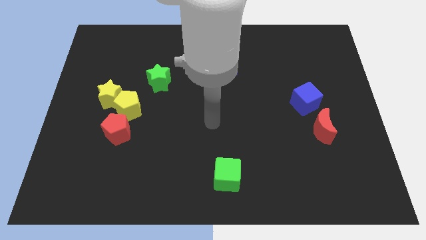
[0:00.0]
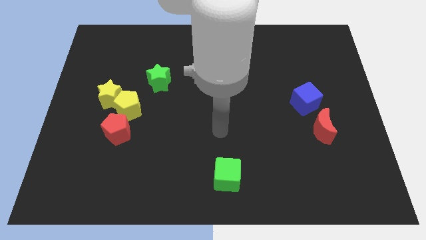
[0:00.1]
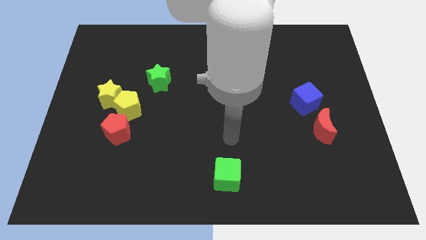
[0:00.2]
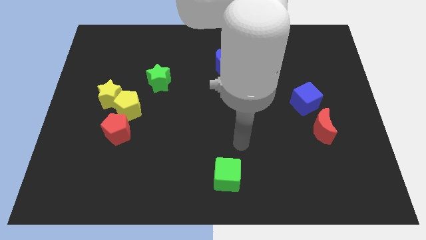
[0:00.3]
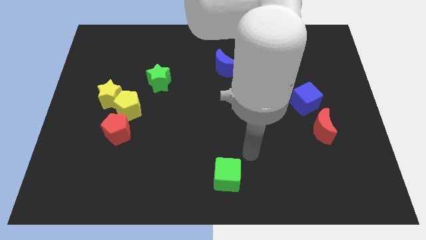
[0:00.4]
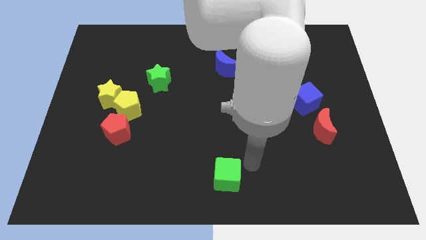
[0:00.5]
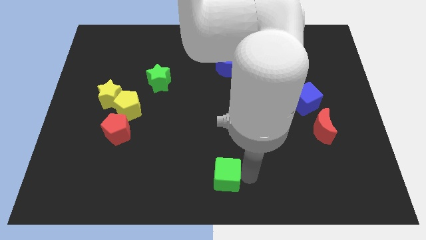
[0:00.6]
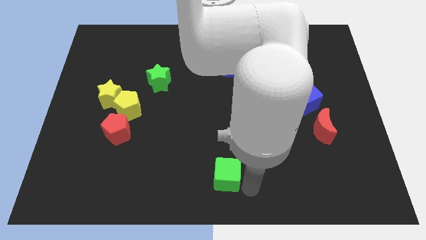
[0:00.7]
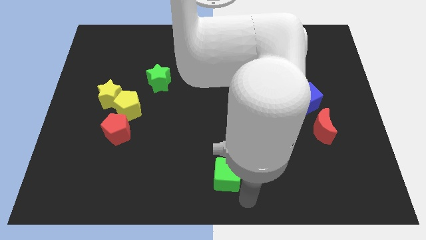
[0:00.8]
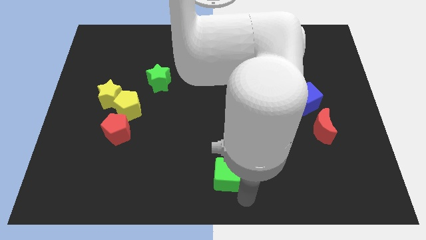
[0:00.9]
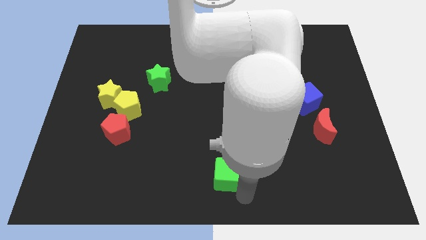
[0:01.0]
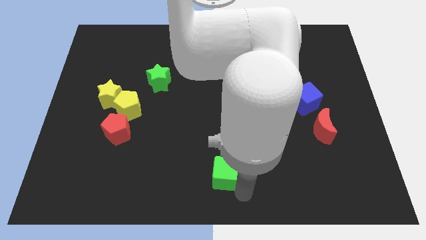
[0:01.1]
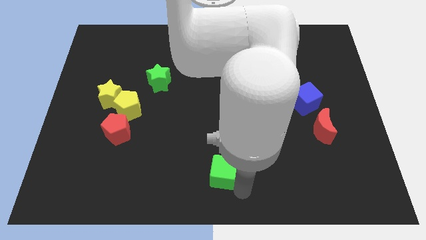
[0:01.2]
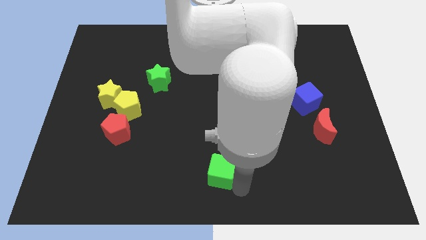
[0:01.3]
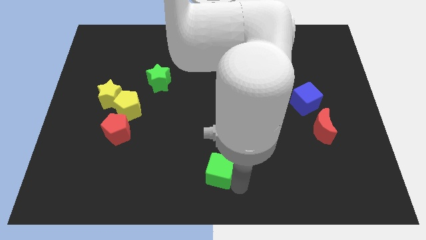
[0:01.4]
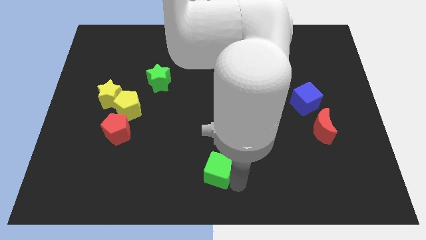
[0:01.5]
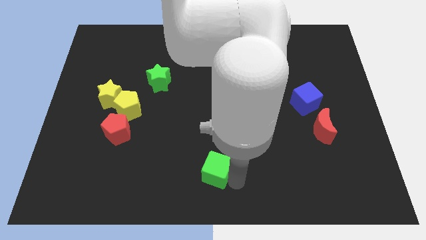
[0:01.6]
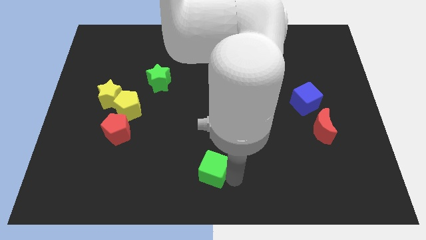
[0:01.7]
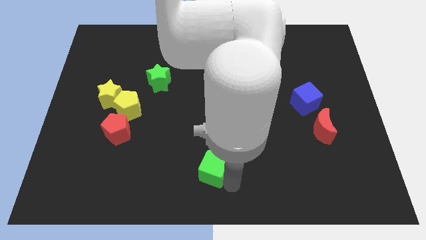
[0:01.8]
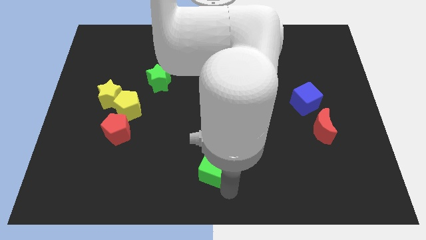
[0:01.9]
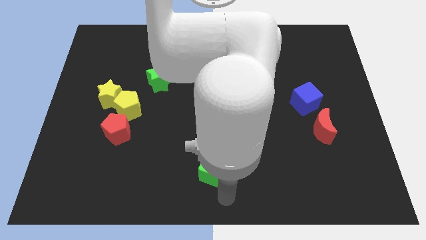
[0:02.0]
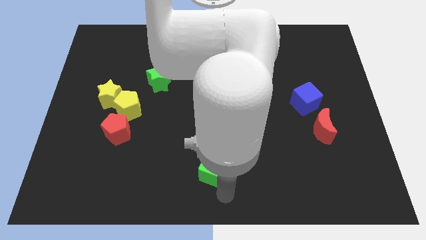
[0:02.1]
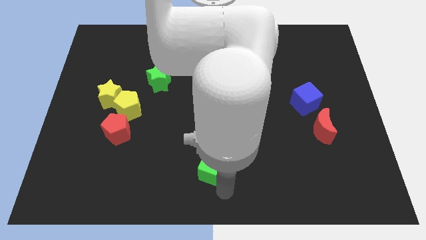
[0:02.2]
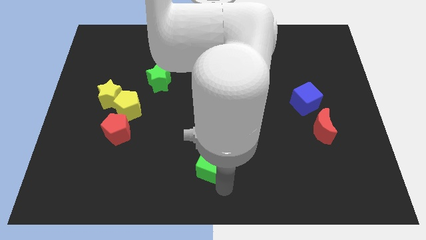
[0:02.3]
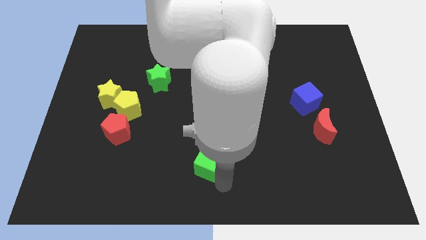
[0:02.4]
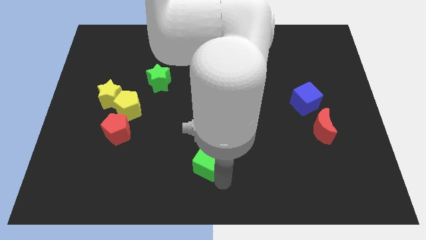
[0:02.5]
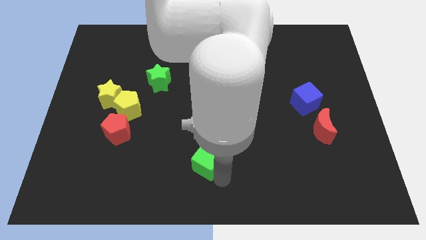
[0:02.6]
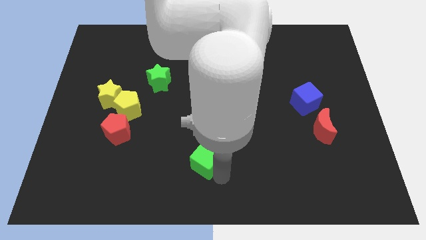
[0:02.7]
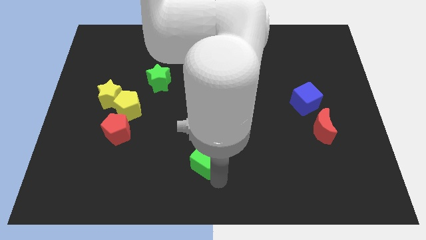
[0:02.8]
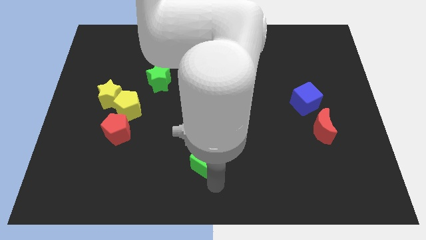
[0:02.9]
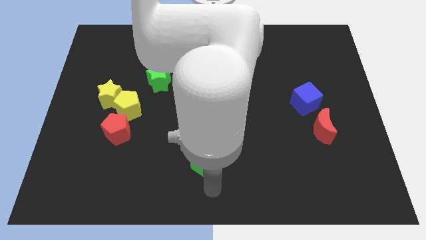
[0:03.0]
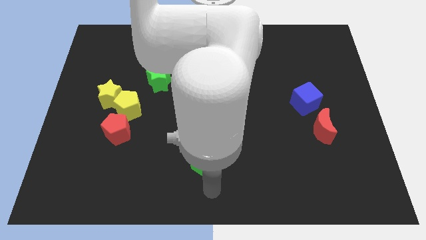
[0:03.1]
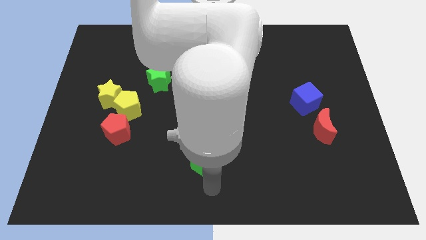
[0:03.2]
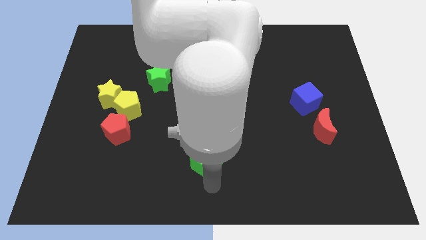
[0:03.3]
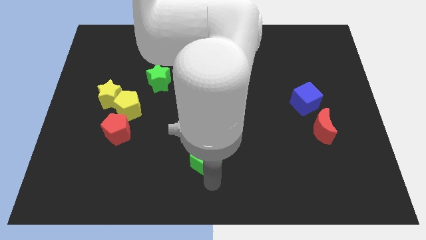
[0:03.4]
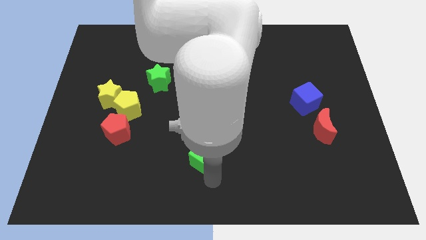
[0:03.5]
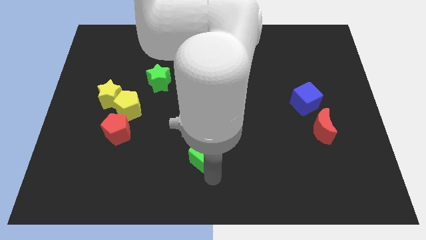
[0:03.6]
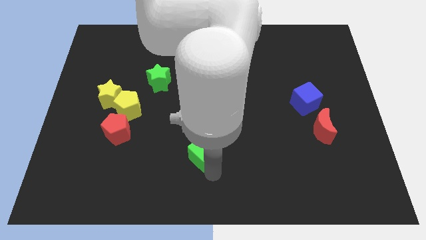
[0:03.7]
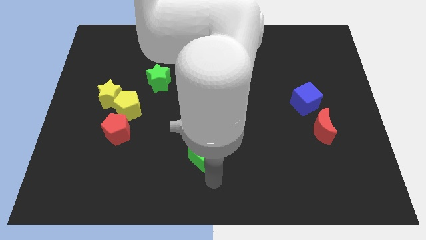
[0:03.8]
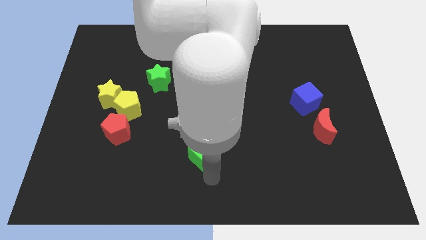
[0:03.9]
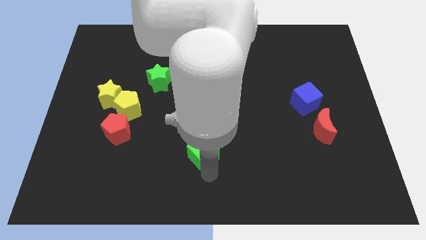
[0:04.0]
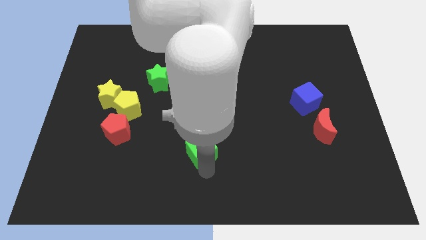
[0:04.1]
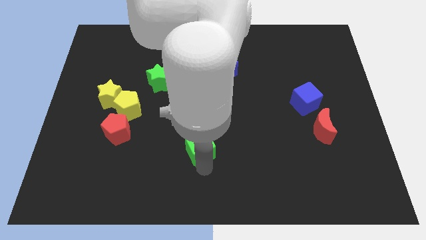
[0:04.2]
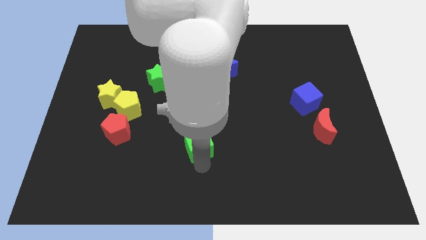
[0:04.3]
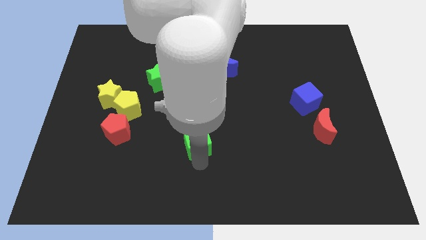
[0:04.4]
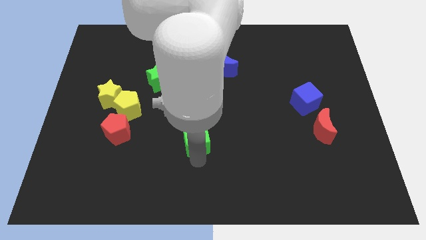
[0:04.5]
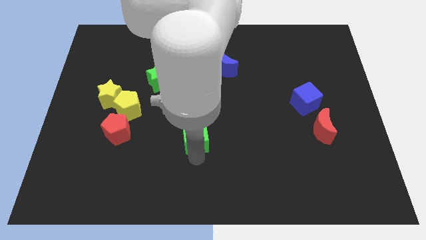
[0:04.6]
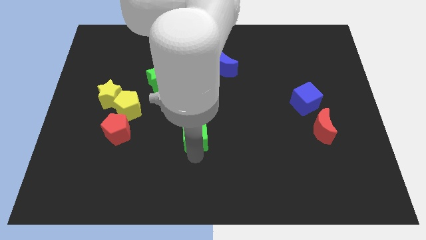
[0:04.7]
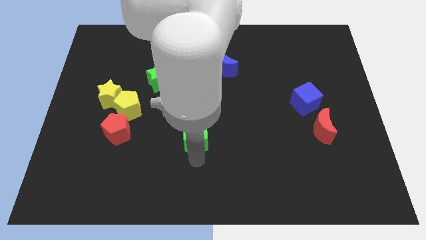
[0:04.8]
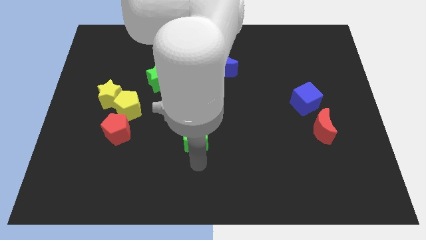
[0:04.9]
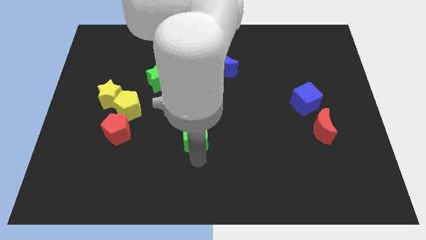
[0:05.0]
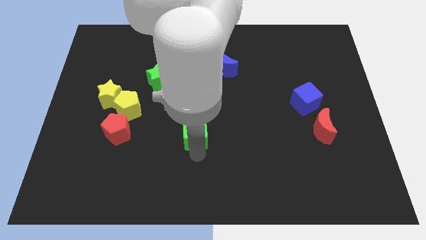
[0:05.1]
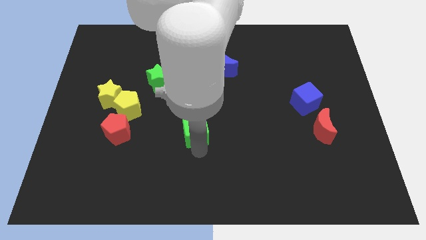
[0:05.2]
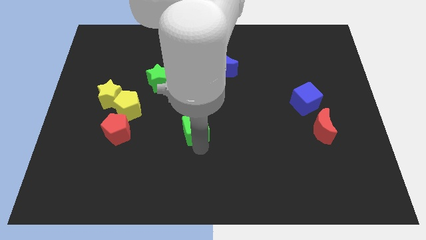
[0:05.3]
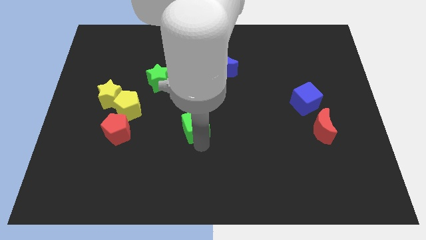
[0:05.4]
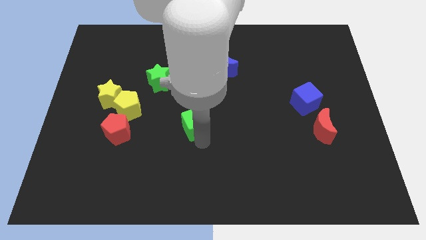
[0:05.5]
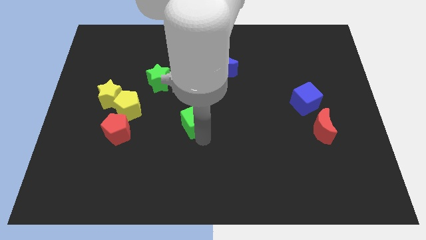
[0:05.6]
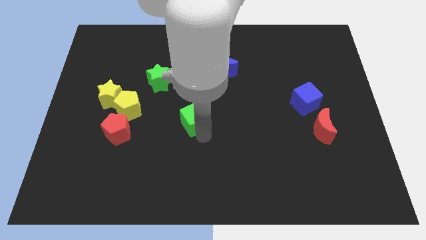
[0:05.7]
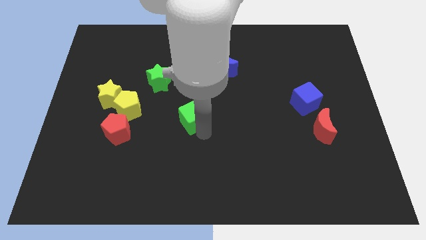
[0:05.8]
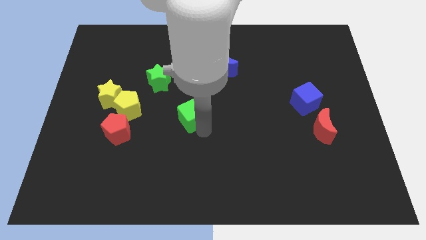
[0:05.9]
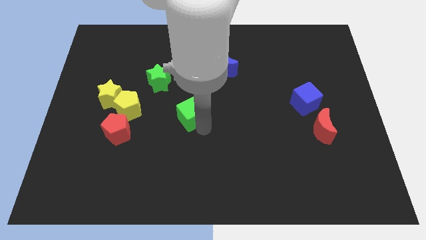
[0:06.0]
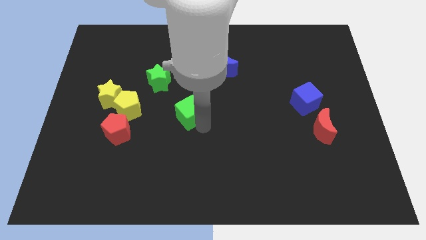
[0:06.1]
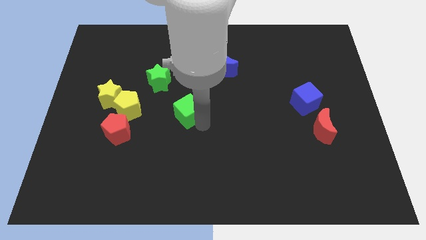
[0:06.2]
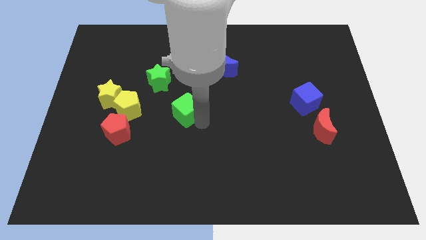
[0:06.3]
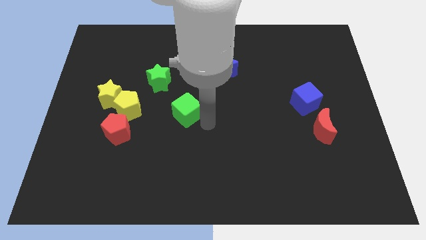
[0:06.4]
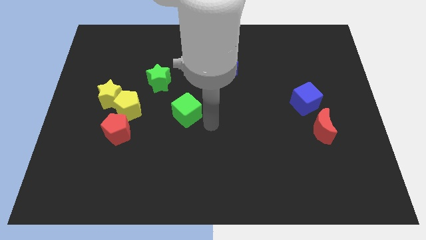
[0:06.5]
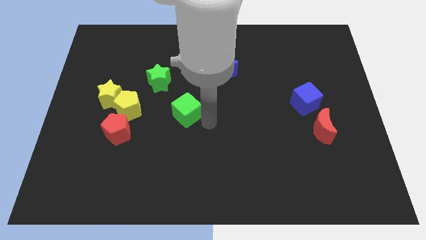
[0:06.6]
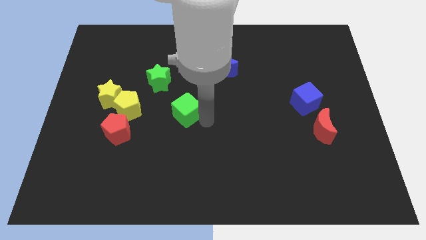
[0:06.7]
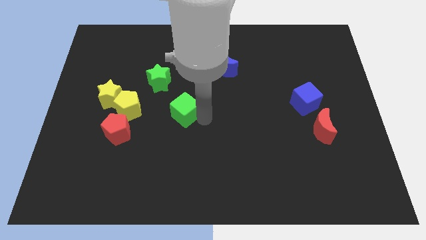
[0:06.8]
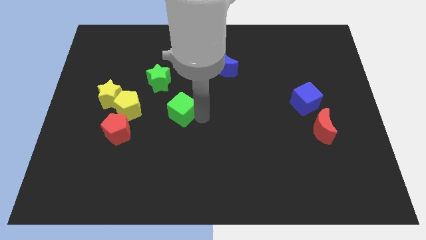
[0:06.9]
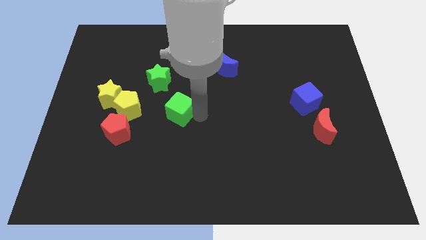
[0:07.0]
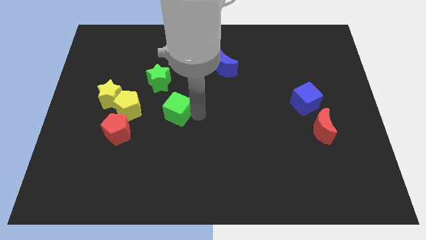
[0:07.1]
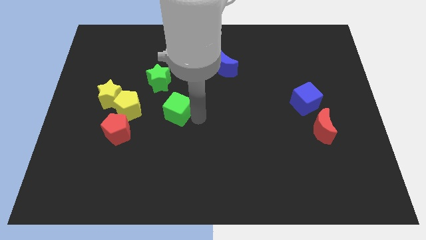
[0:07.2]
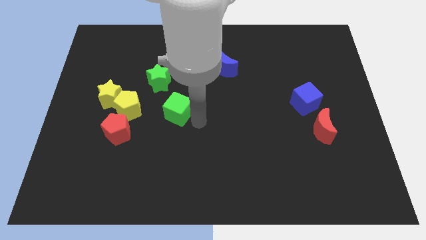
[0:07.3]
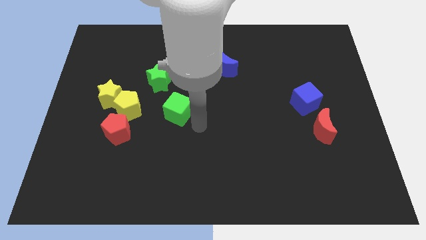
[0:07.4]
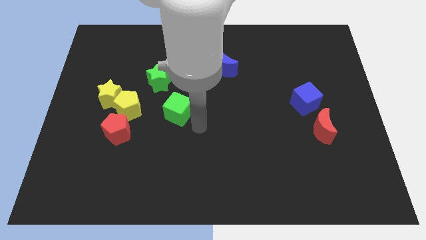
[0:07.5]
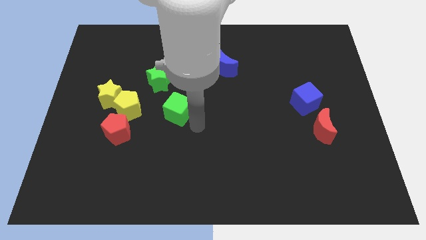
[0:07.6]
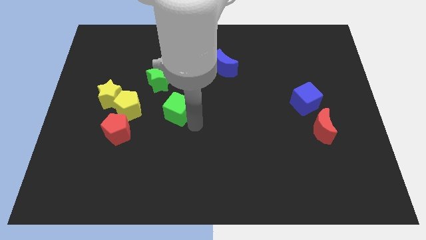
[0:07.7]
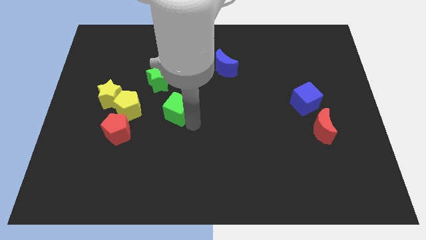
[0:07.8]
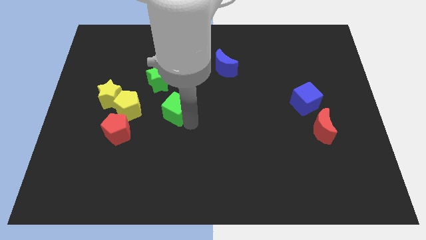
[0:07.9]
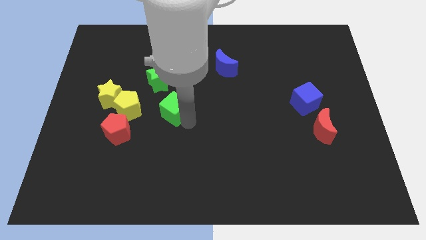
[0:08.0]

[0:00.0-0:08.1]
push the green cube upwards and left diagonally
